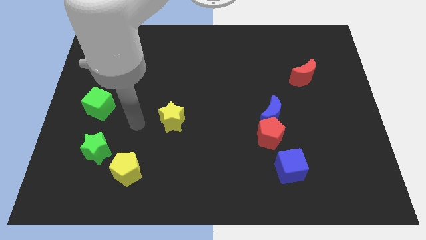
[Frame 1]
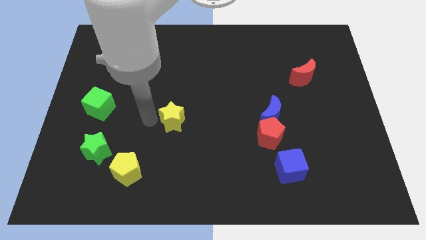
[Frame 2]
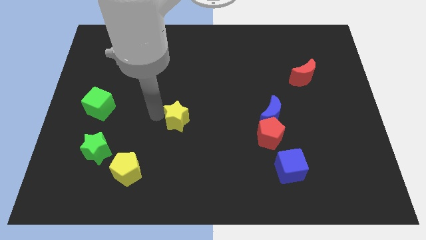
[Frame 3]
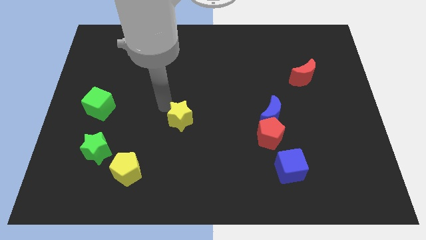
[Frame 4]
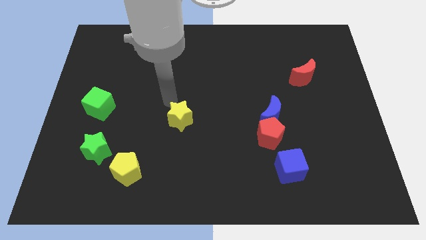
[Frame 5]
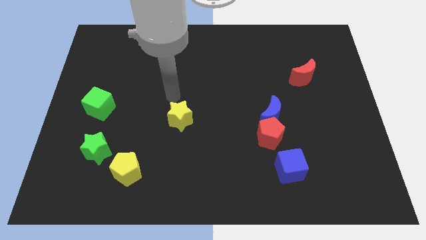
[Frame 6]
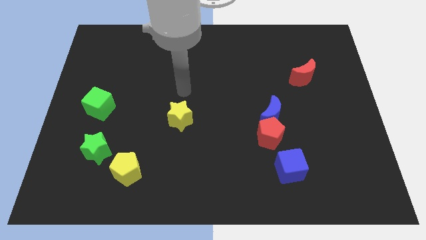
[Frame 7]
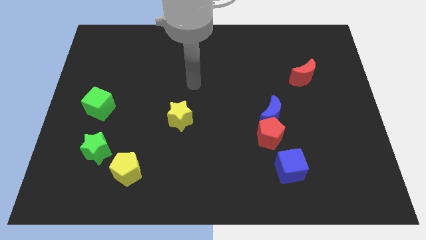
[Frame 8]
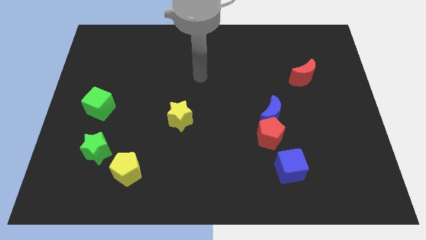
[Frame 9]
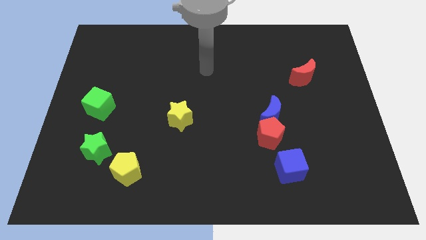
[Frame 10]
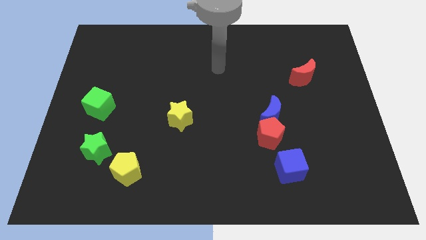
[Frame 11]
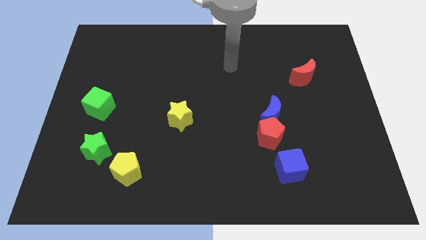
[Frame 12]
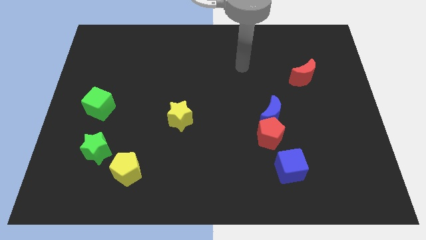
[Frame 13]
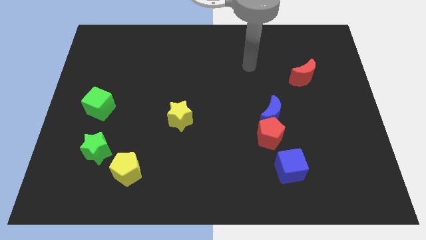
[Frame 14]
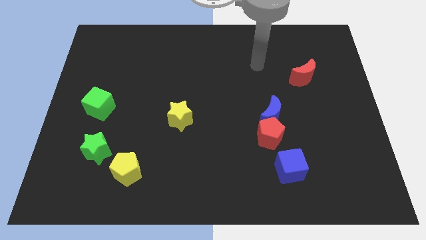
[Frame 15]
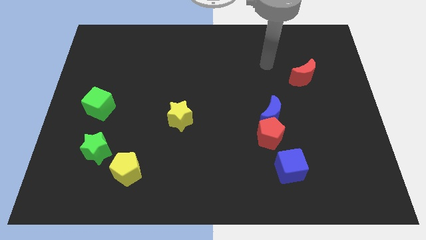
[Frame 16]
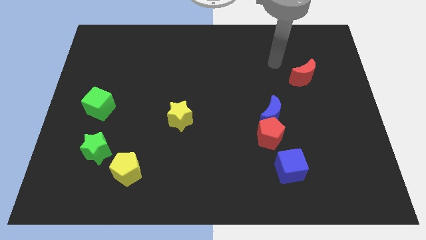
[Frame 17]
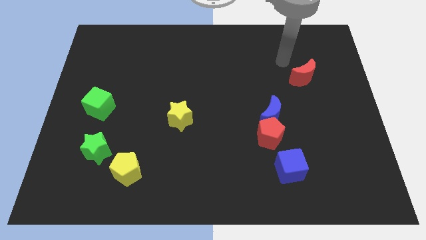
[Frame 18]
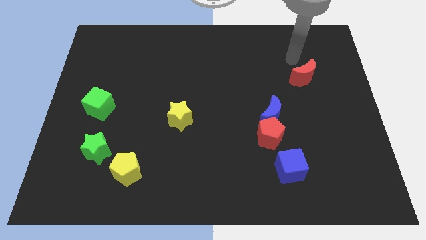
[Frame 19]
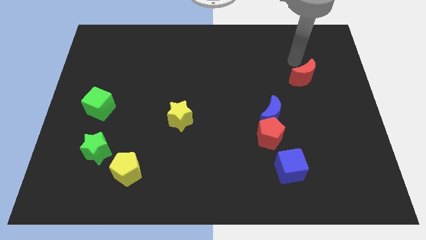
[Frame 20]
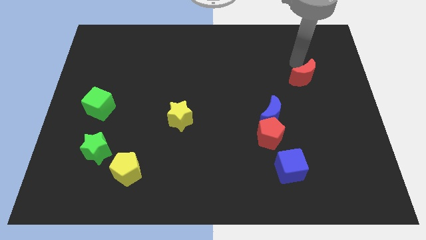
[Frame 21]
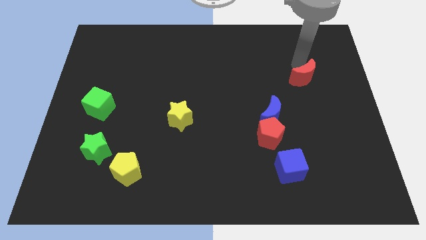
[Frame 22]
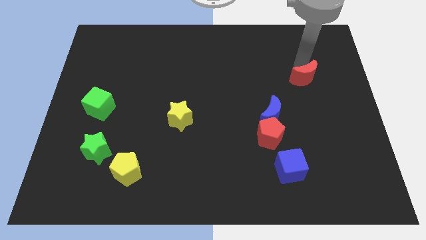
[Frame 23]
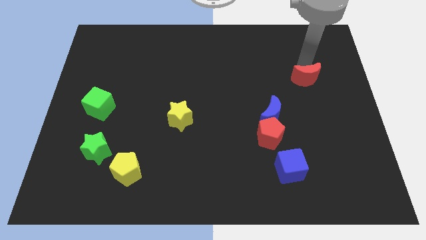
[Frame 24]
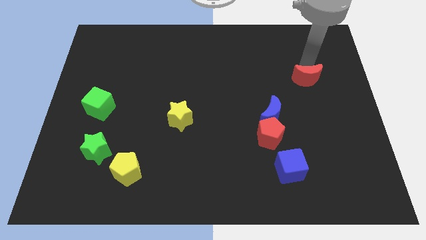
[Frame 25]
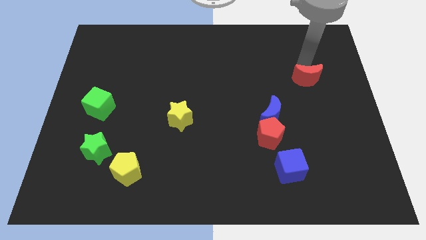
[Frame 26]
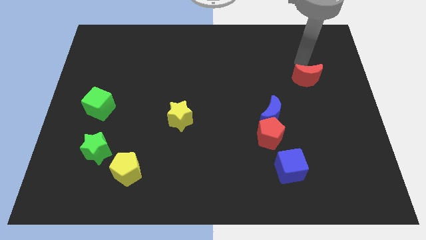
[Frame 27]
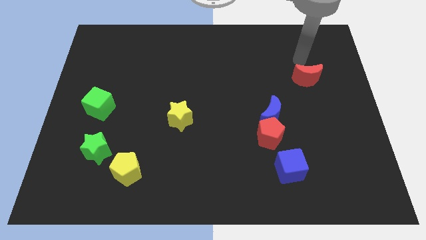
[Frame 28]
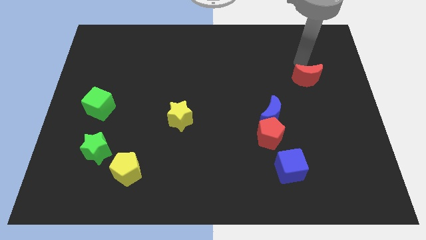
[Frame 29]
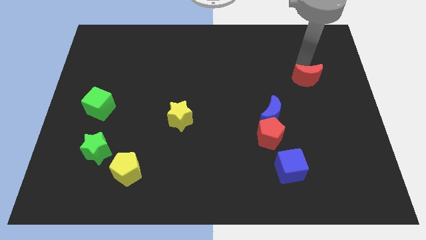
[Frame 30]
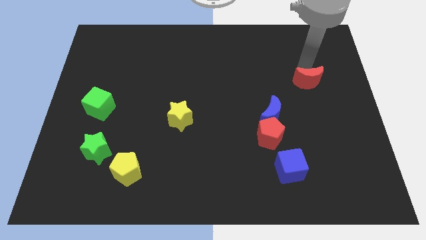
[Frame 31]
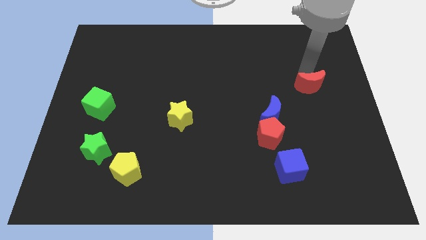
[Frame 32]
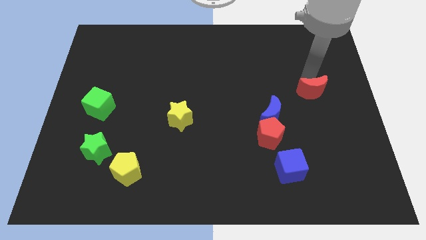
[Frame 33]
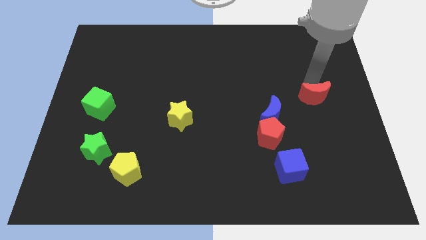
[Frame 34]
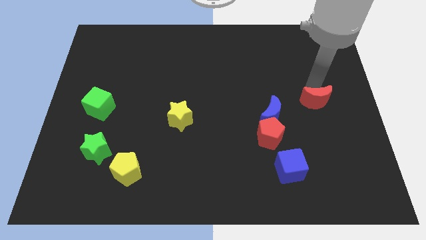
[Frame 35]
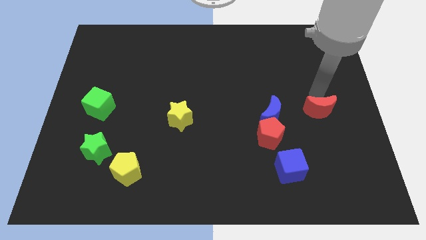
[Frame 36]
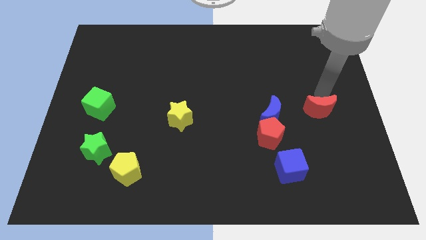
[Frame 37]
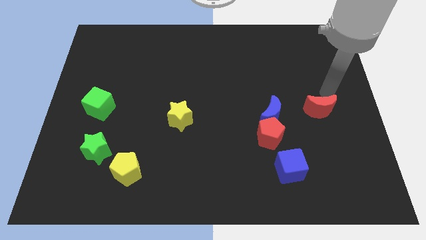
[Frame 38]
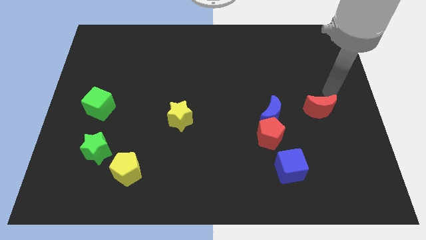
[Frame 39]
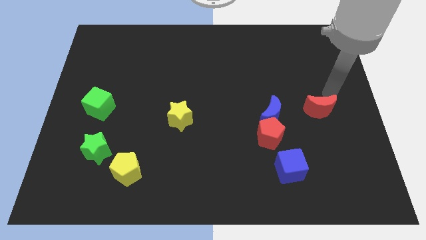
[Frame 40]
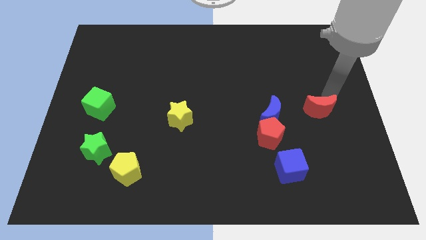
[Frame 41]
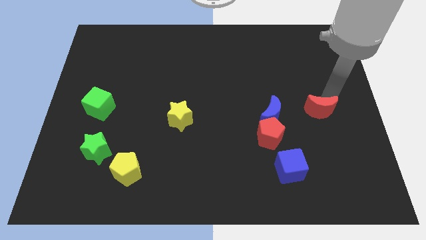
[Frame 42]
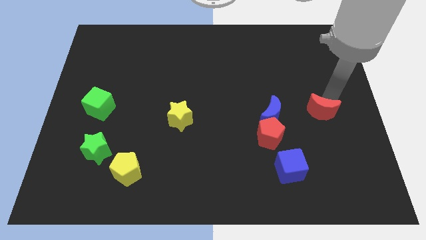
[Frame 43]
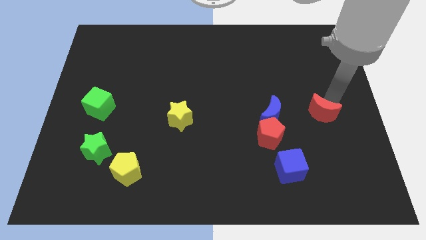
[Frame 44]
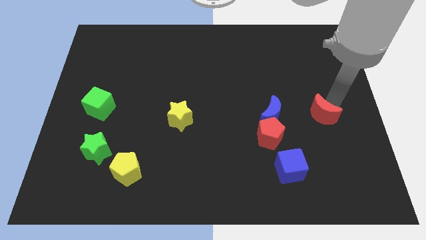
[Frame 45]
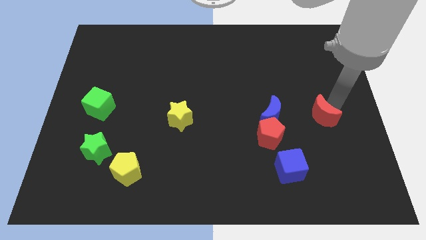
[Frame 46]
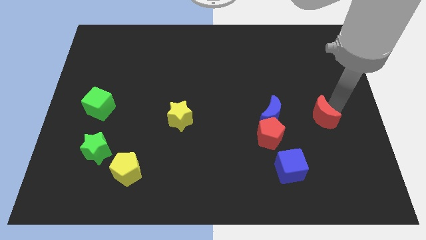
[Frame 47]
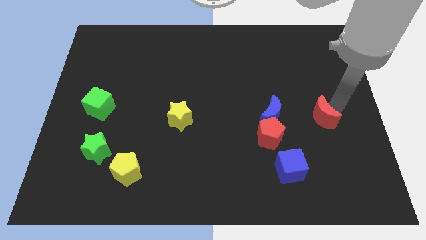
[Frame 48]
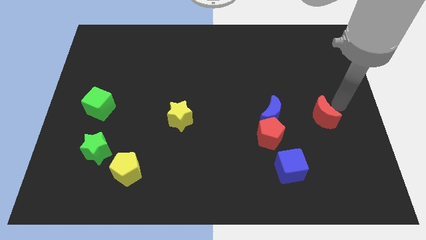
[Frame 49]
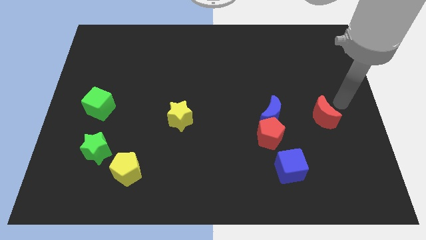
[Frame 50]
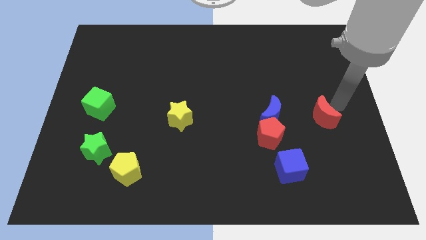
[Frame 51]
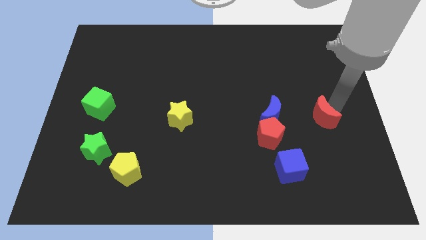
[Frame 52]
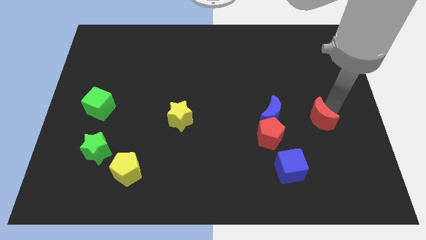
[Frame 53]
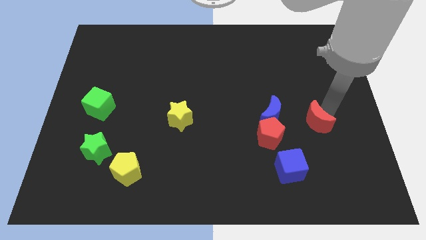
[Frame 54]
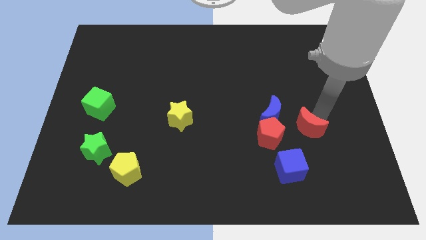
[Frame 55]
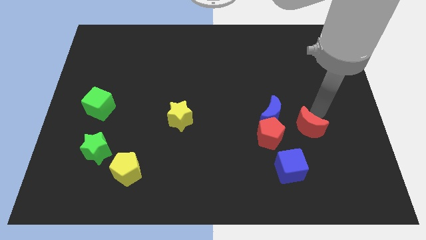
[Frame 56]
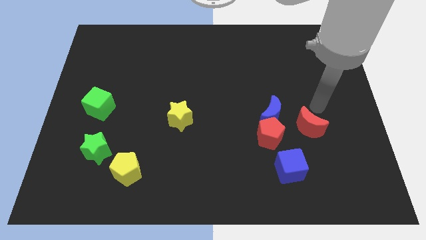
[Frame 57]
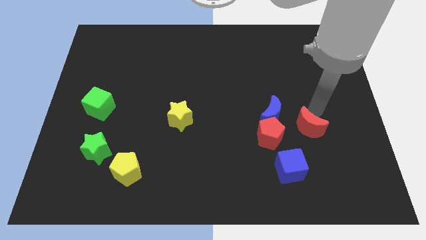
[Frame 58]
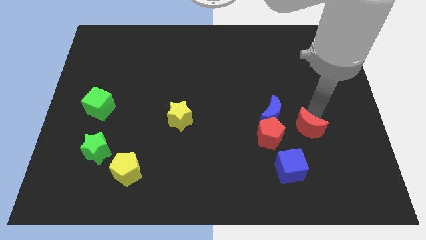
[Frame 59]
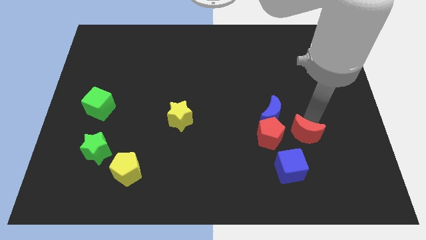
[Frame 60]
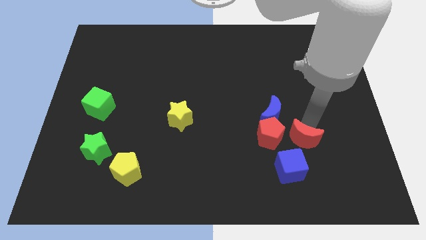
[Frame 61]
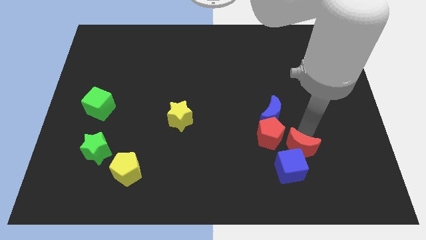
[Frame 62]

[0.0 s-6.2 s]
slide the red moon towards the blue cube

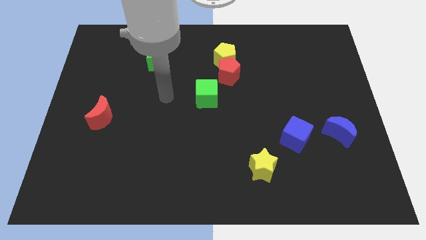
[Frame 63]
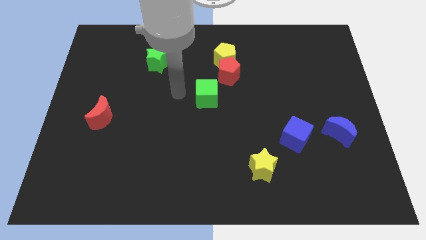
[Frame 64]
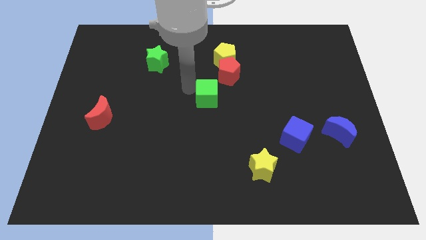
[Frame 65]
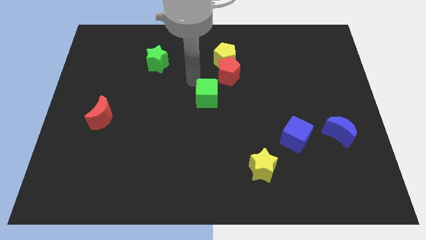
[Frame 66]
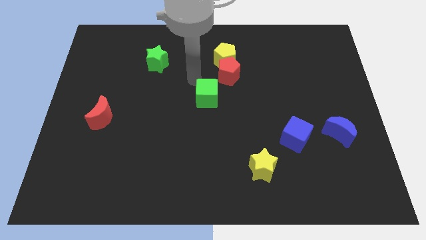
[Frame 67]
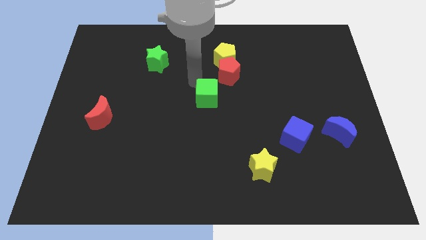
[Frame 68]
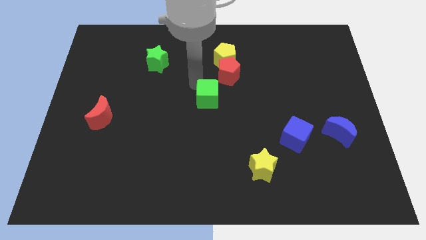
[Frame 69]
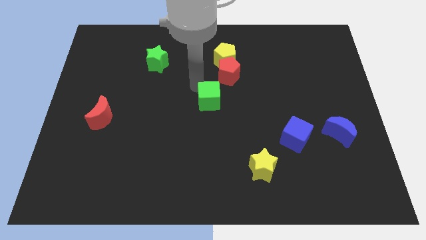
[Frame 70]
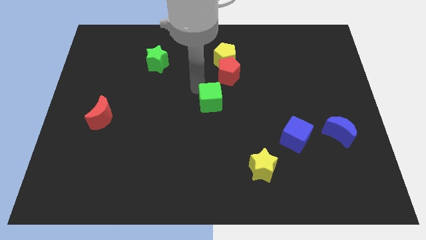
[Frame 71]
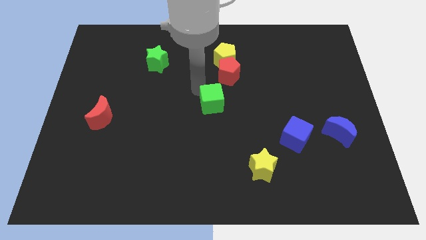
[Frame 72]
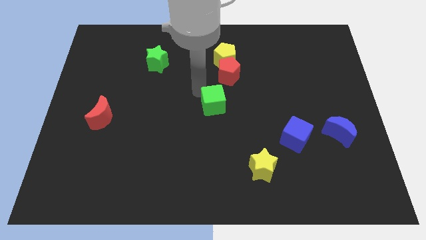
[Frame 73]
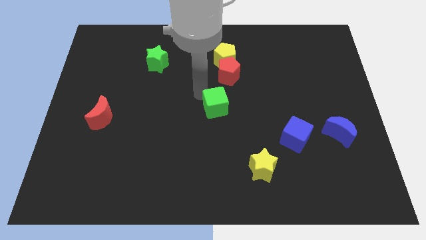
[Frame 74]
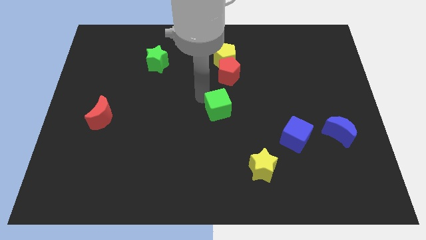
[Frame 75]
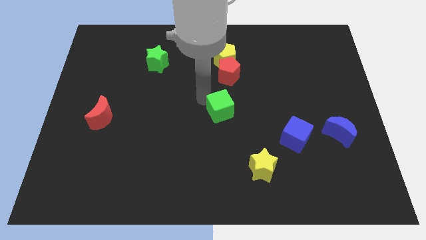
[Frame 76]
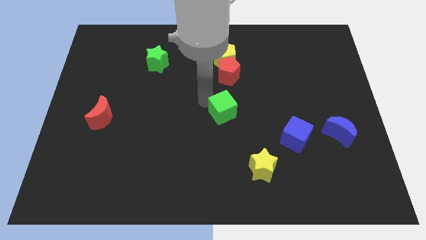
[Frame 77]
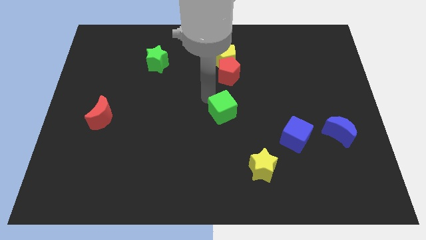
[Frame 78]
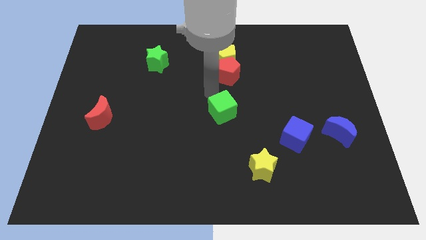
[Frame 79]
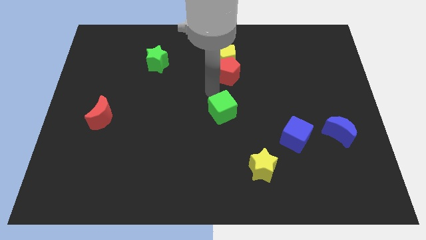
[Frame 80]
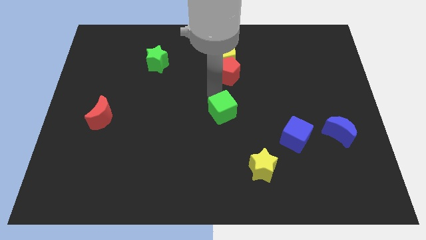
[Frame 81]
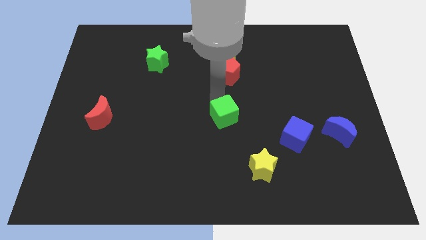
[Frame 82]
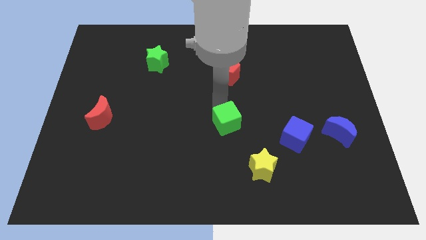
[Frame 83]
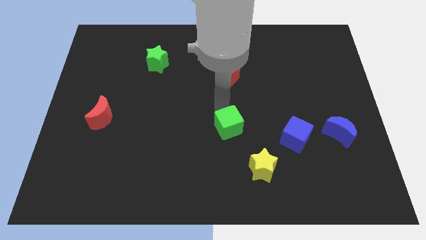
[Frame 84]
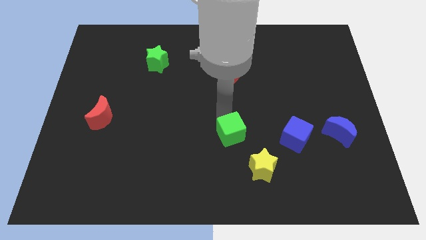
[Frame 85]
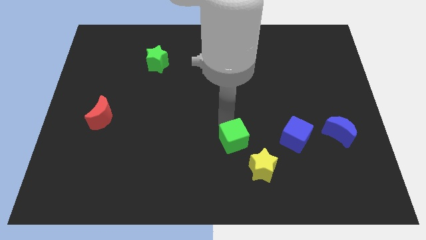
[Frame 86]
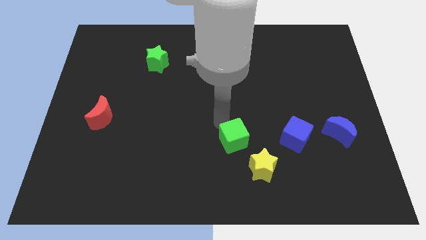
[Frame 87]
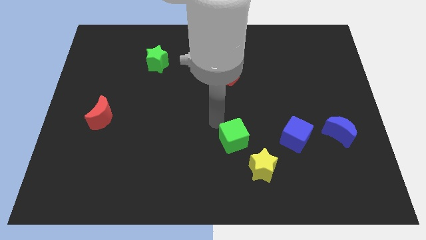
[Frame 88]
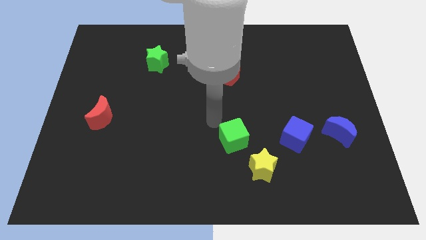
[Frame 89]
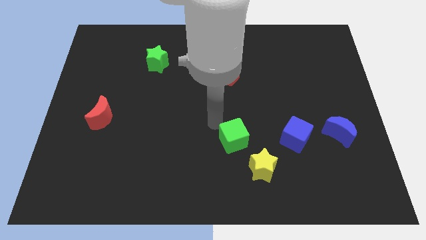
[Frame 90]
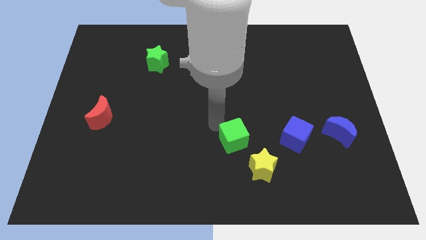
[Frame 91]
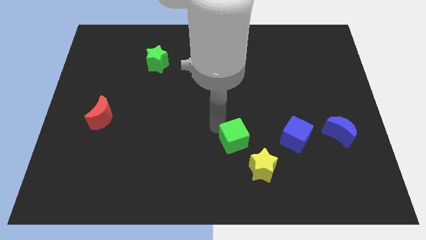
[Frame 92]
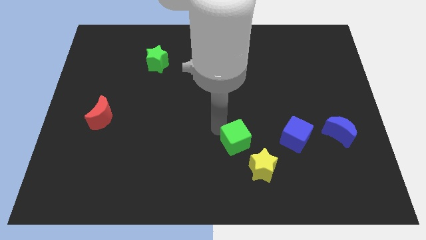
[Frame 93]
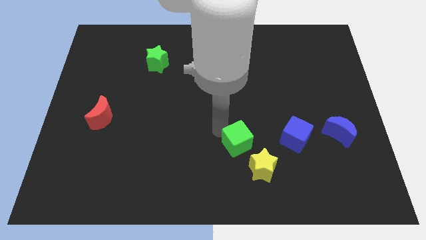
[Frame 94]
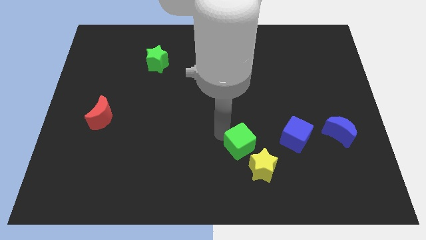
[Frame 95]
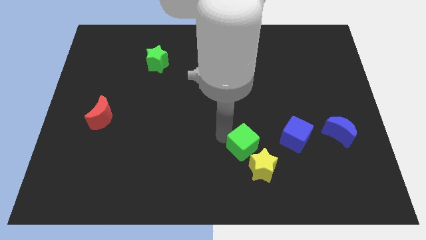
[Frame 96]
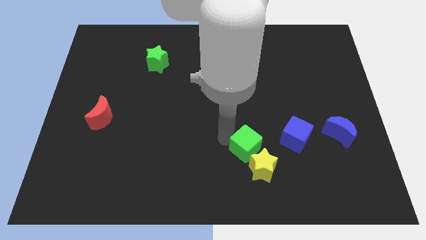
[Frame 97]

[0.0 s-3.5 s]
slide the green cube to the yellow star
